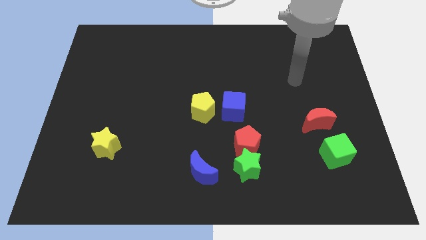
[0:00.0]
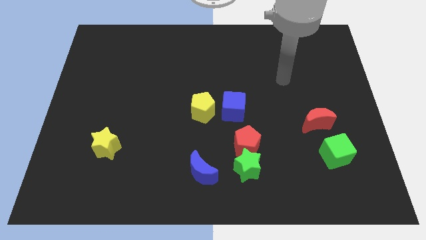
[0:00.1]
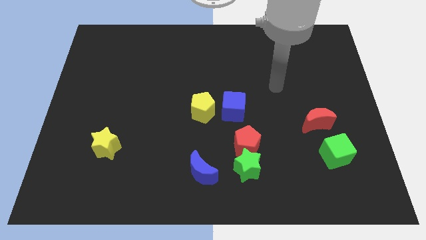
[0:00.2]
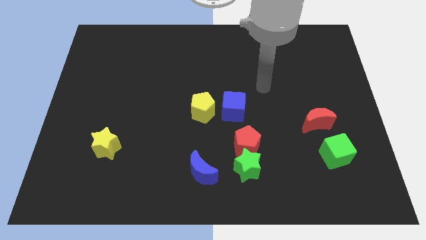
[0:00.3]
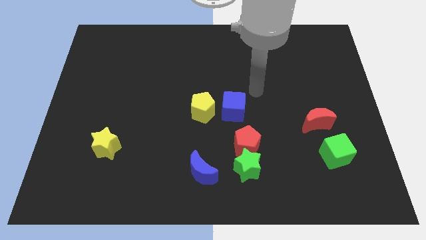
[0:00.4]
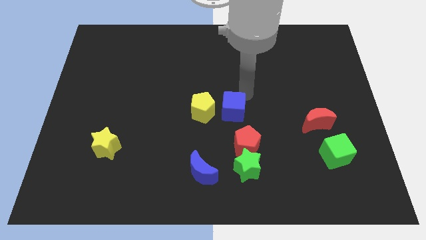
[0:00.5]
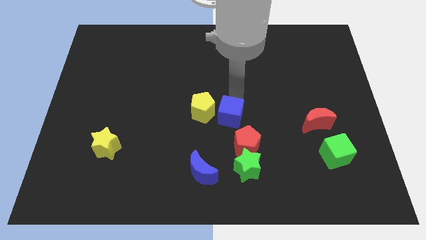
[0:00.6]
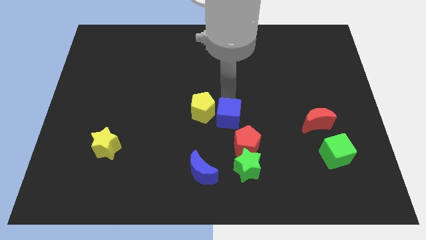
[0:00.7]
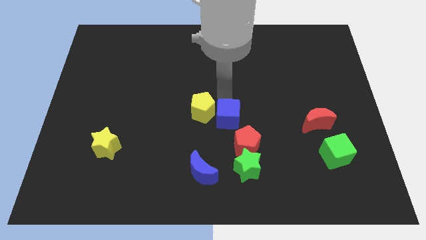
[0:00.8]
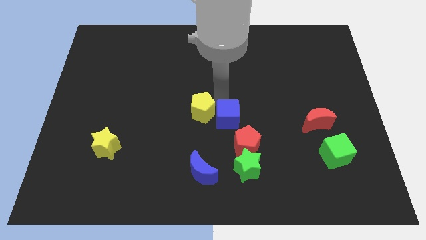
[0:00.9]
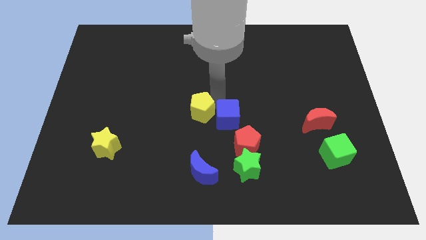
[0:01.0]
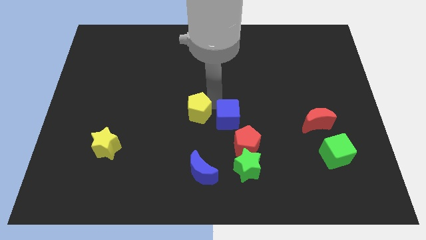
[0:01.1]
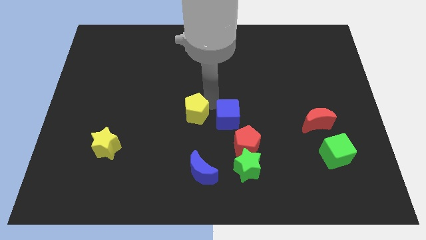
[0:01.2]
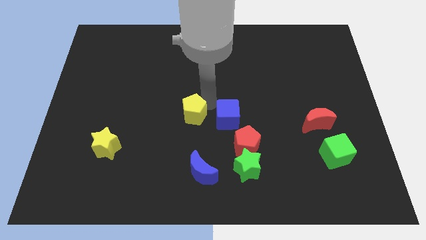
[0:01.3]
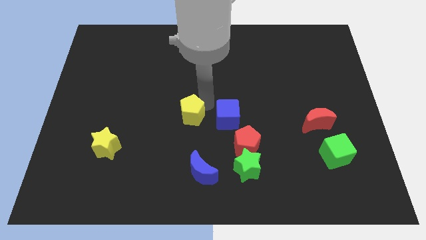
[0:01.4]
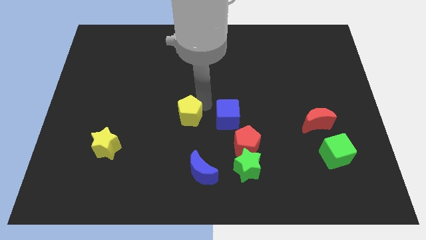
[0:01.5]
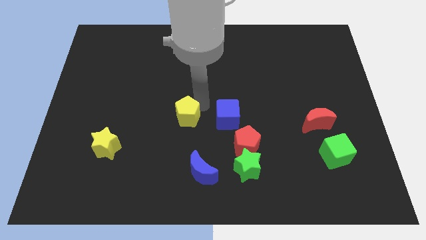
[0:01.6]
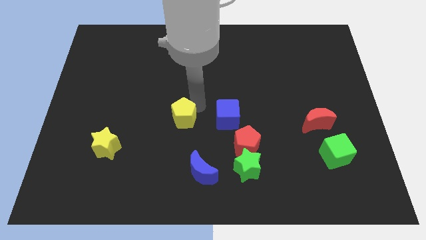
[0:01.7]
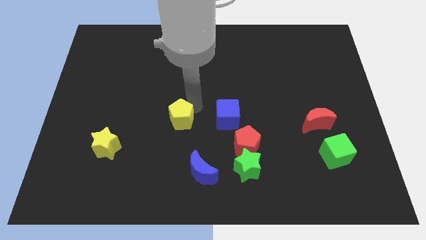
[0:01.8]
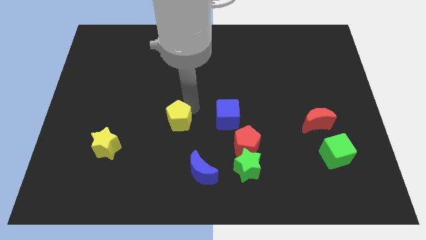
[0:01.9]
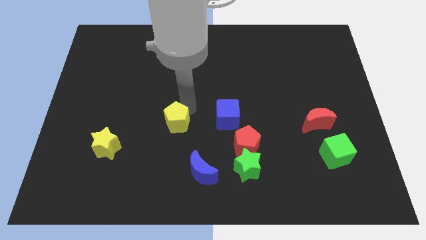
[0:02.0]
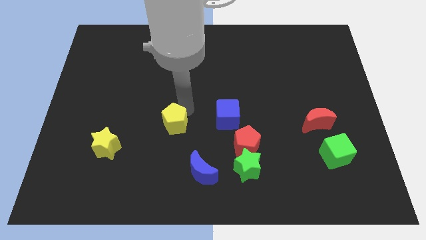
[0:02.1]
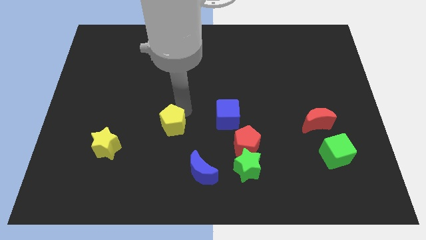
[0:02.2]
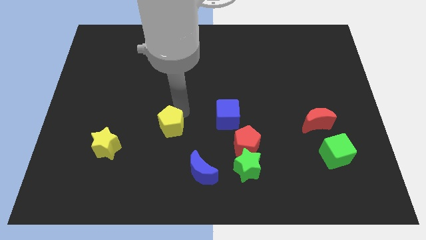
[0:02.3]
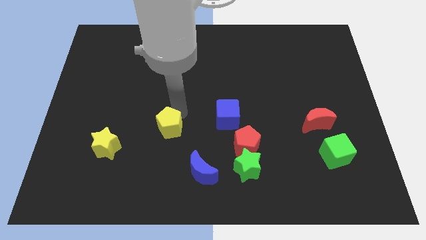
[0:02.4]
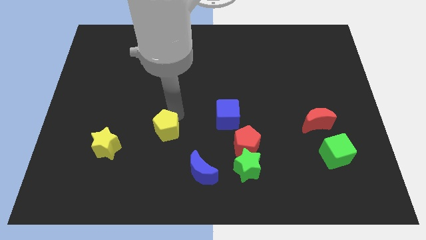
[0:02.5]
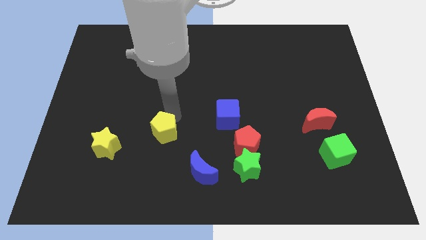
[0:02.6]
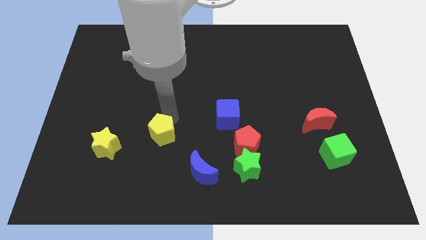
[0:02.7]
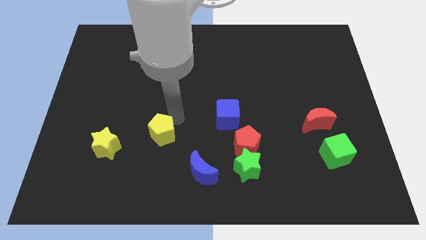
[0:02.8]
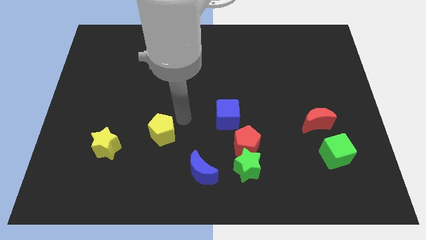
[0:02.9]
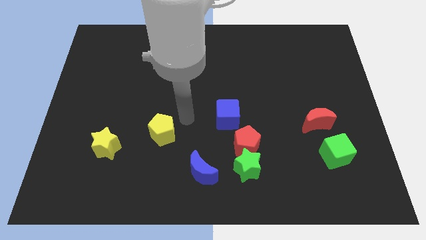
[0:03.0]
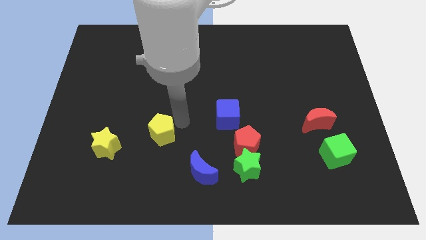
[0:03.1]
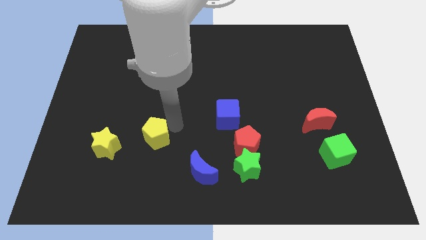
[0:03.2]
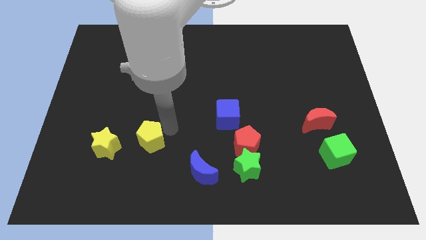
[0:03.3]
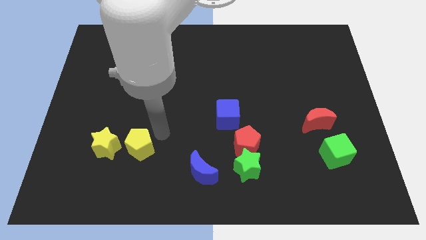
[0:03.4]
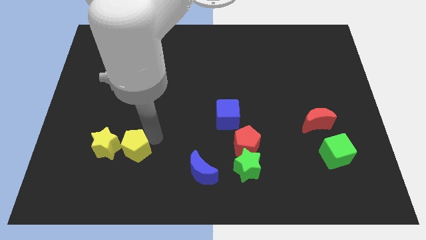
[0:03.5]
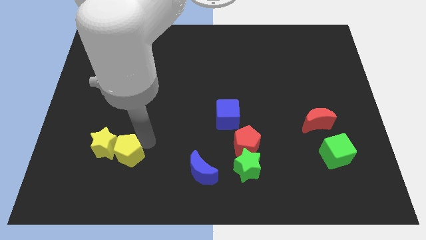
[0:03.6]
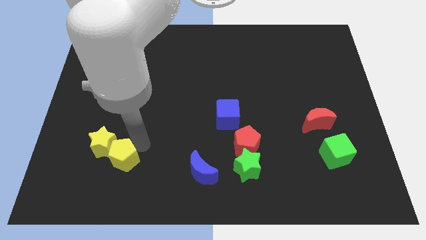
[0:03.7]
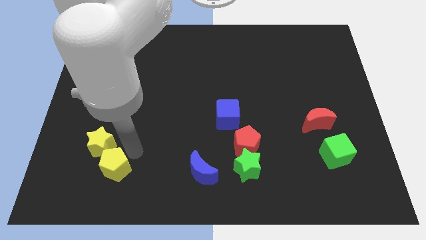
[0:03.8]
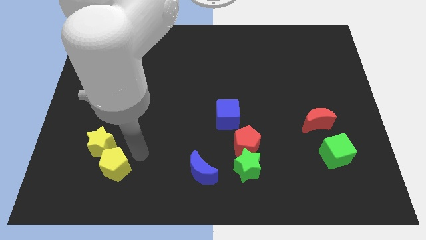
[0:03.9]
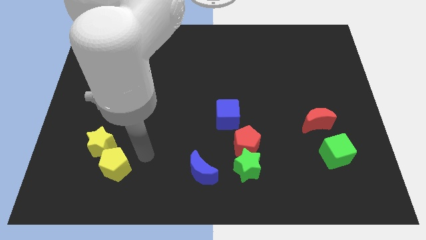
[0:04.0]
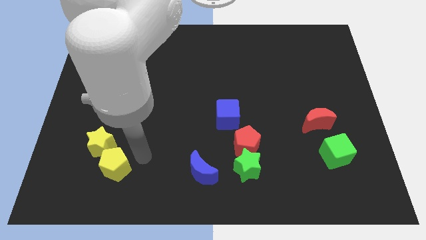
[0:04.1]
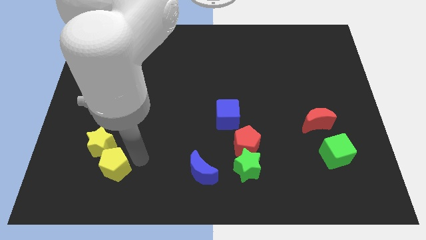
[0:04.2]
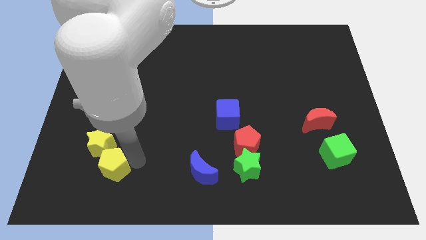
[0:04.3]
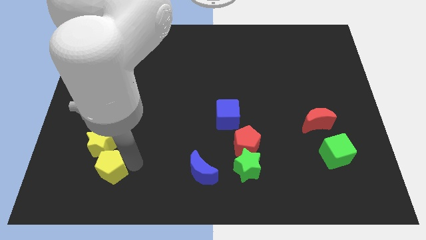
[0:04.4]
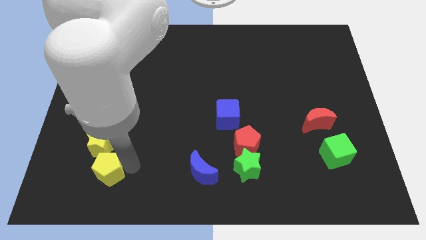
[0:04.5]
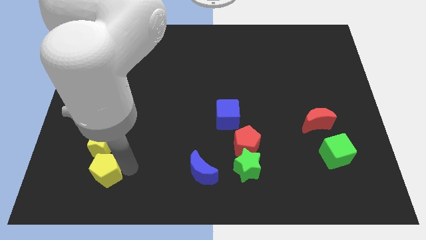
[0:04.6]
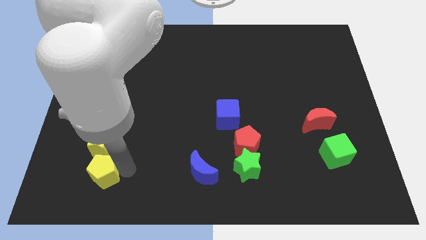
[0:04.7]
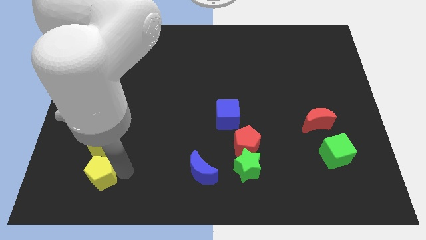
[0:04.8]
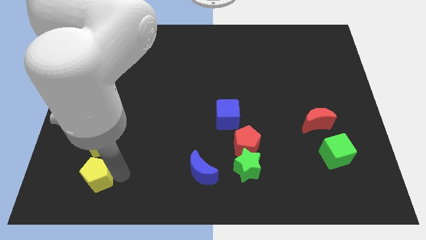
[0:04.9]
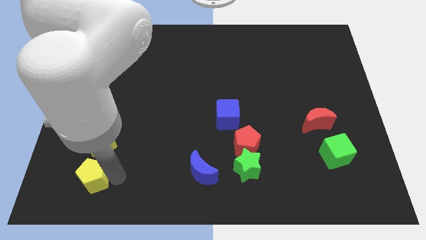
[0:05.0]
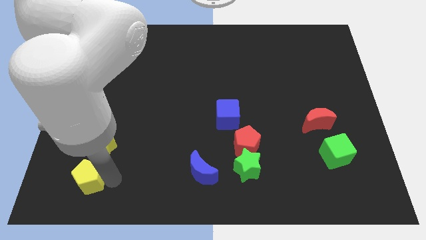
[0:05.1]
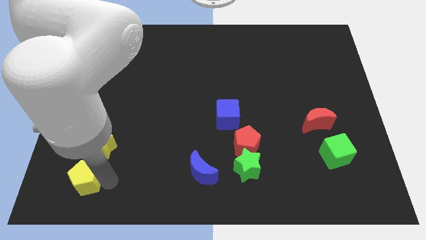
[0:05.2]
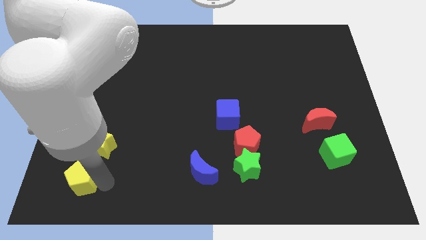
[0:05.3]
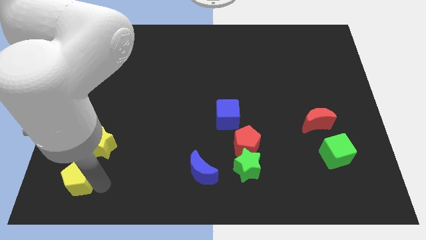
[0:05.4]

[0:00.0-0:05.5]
push the yellow pentagon to the bottom left

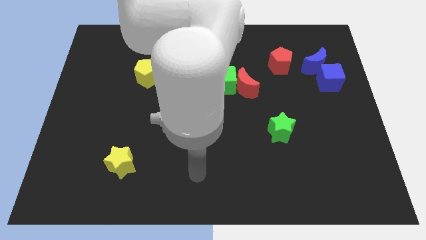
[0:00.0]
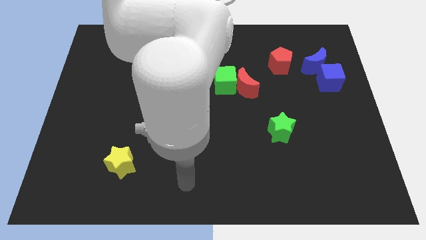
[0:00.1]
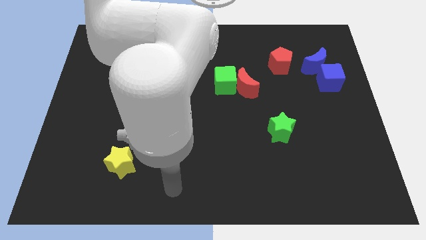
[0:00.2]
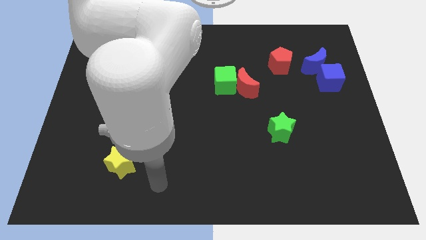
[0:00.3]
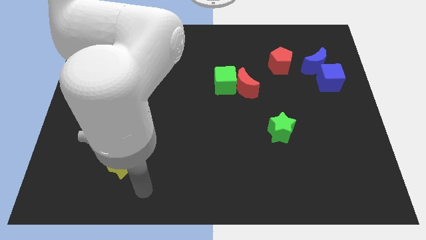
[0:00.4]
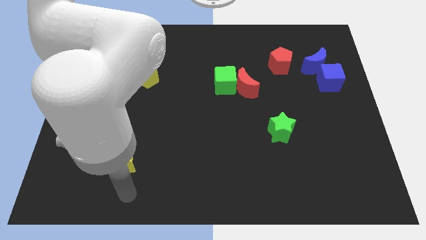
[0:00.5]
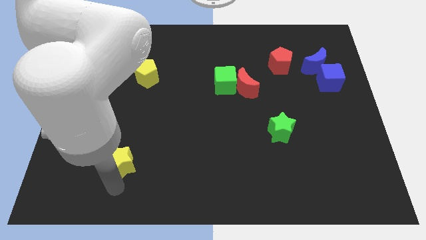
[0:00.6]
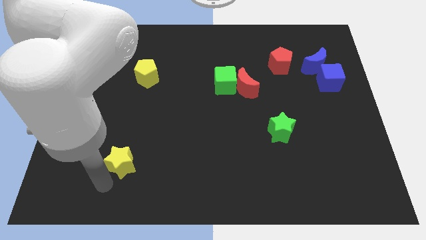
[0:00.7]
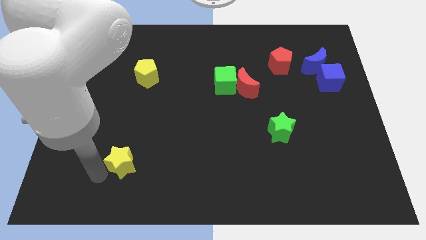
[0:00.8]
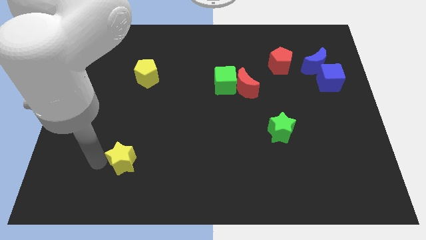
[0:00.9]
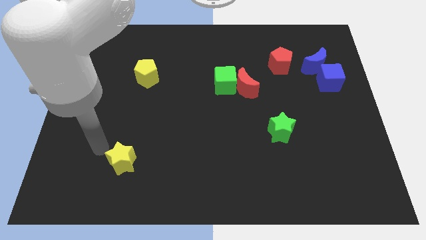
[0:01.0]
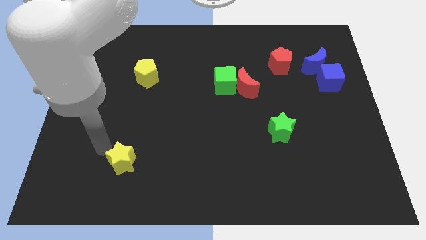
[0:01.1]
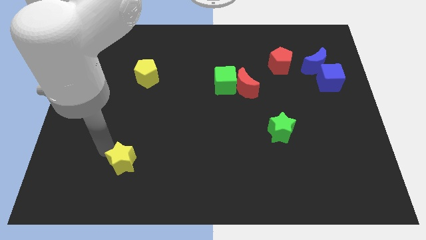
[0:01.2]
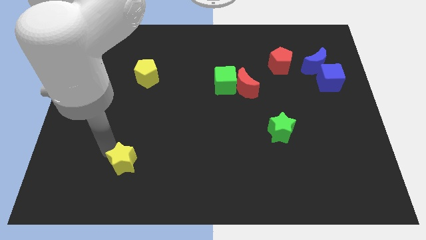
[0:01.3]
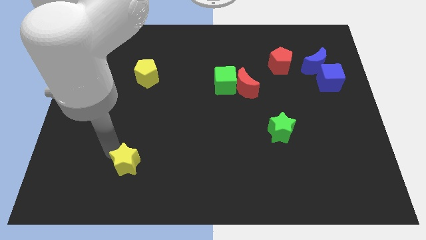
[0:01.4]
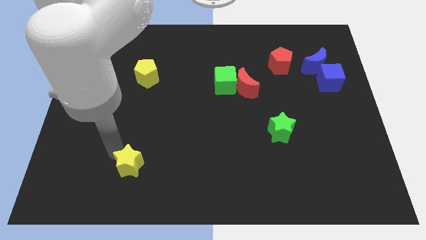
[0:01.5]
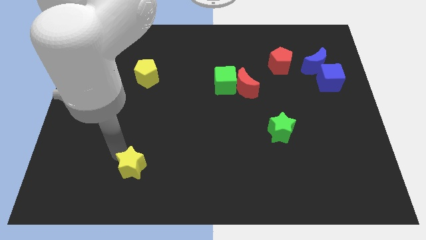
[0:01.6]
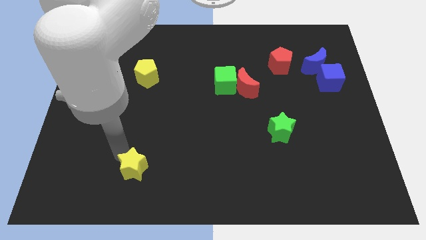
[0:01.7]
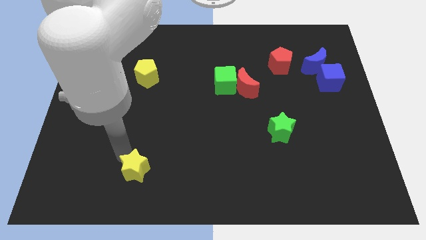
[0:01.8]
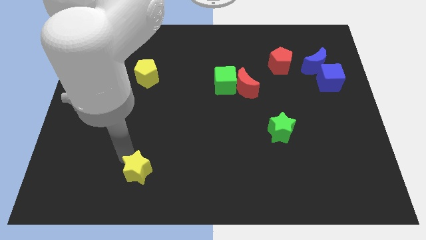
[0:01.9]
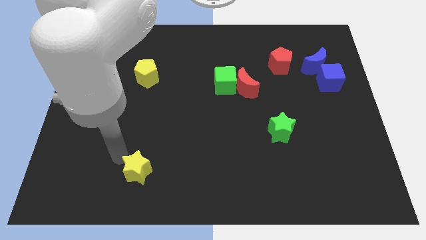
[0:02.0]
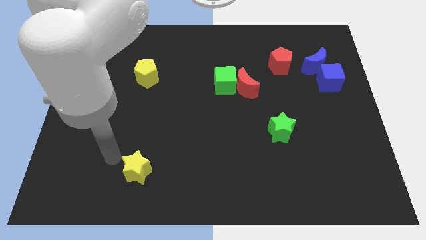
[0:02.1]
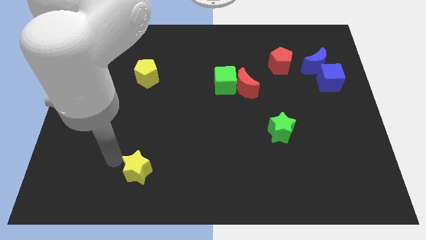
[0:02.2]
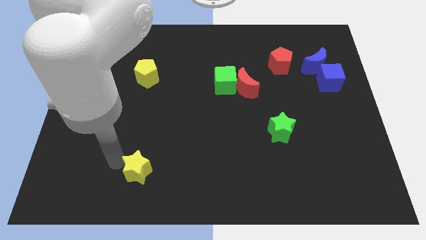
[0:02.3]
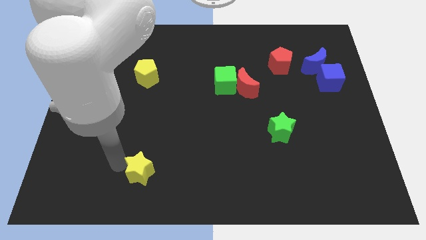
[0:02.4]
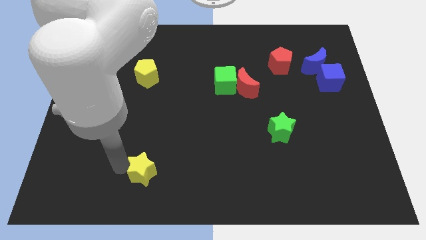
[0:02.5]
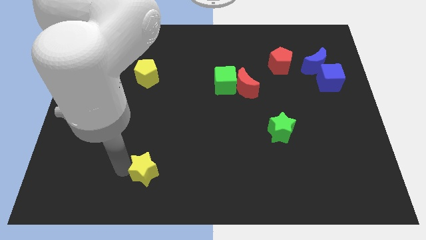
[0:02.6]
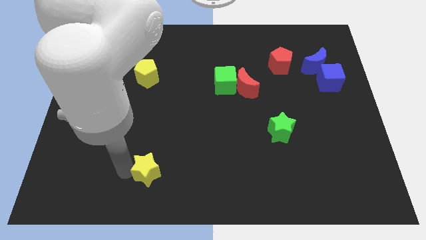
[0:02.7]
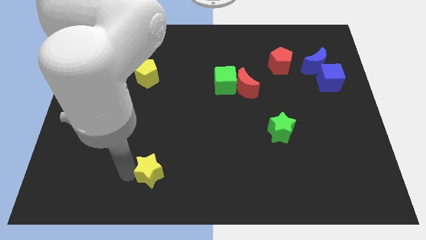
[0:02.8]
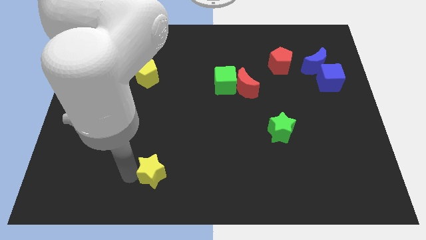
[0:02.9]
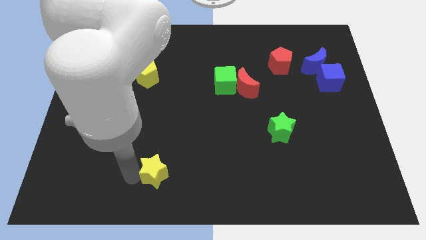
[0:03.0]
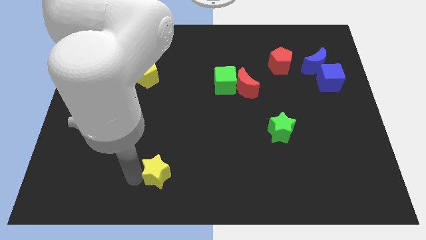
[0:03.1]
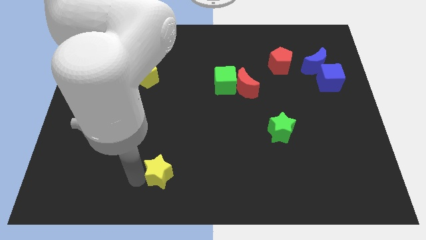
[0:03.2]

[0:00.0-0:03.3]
slide the yellow star to the bottom
